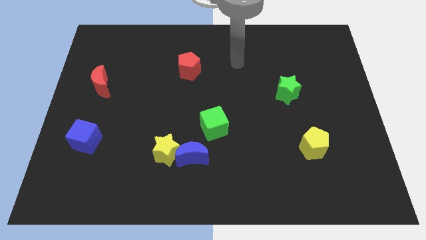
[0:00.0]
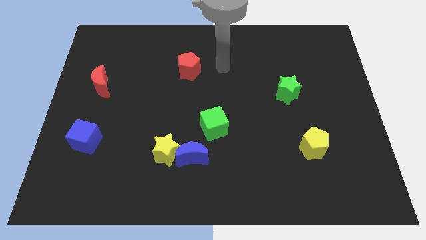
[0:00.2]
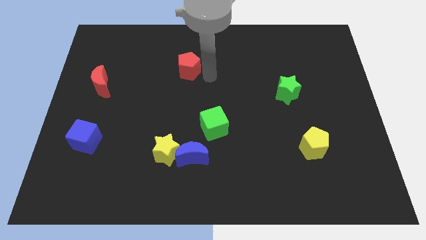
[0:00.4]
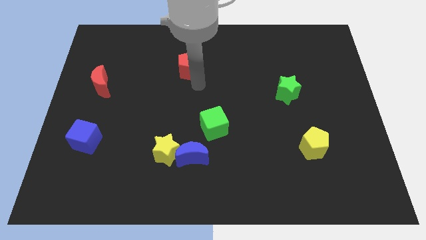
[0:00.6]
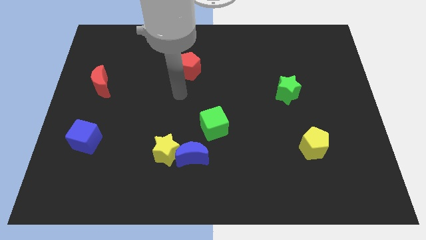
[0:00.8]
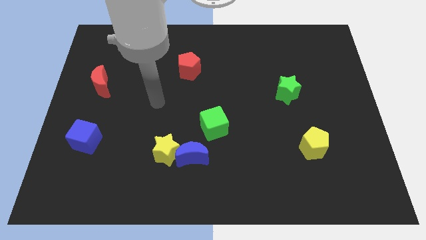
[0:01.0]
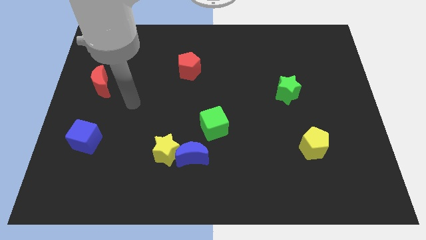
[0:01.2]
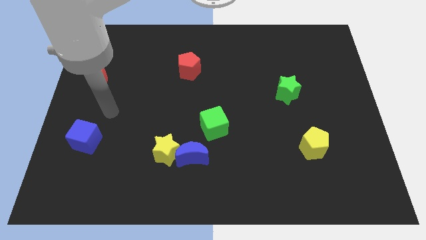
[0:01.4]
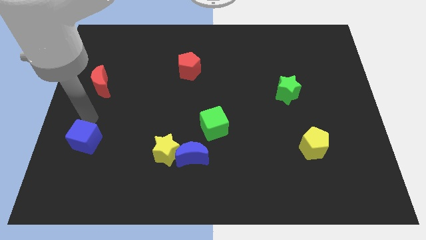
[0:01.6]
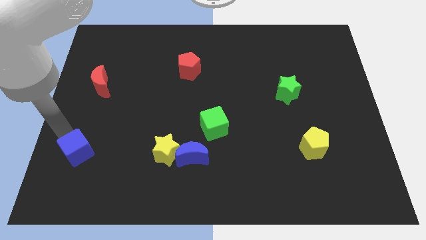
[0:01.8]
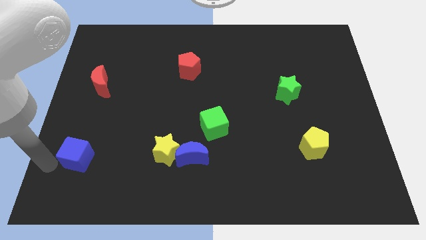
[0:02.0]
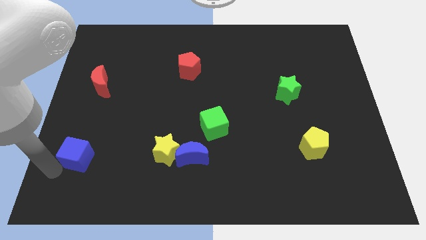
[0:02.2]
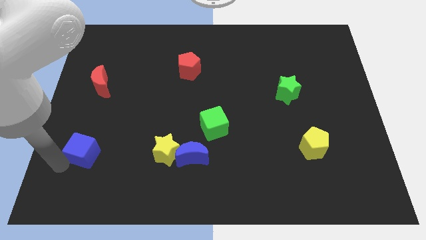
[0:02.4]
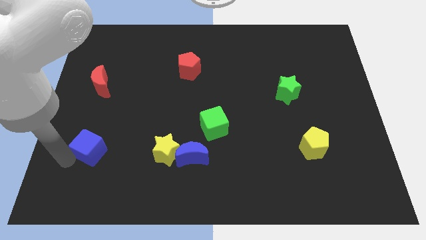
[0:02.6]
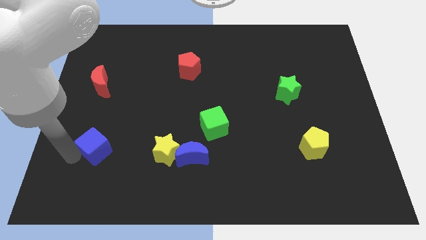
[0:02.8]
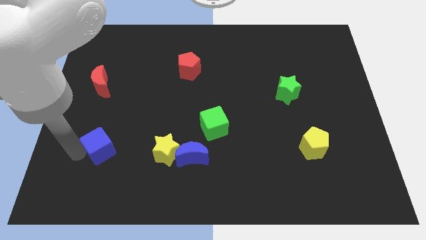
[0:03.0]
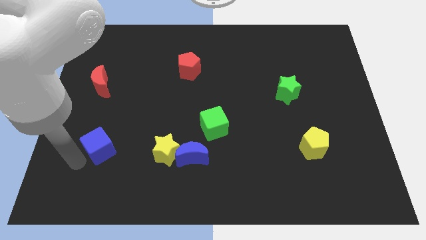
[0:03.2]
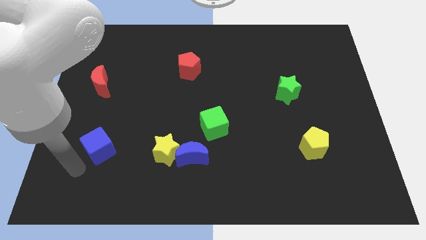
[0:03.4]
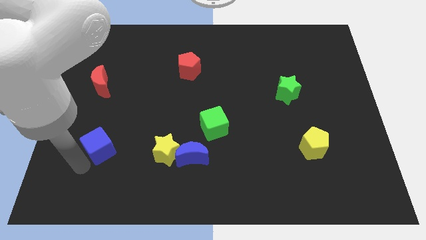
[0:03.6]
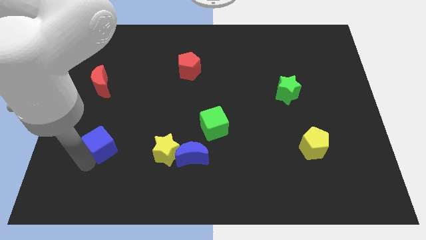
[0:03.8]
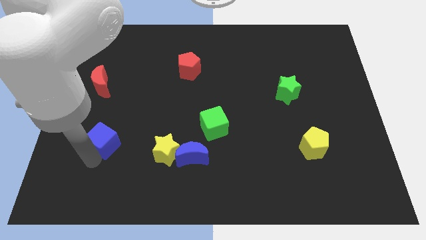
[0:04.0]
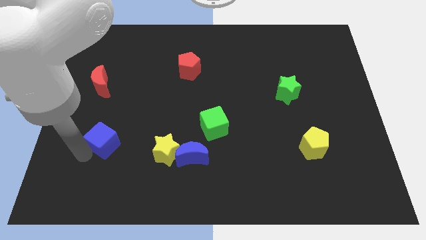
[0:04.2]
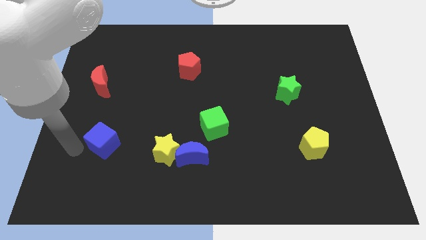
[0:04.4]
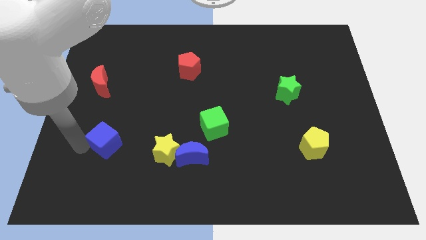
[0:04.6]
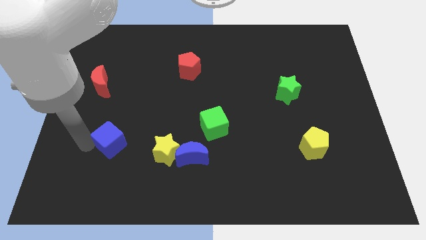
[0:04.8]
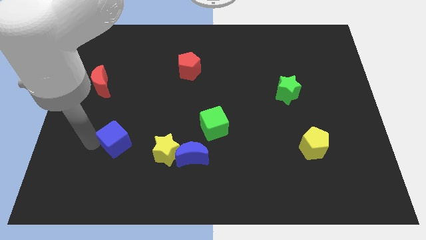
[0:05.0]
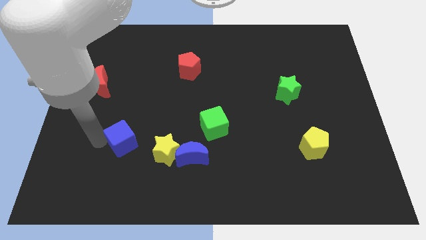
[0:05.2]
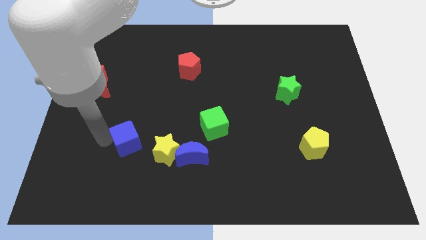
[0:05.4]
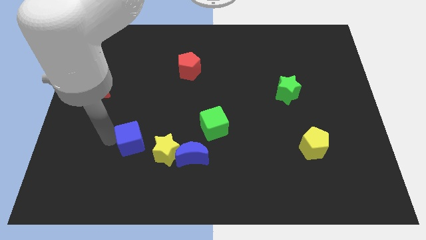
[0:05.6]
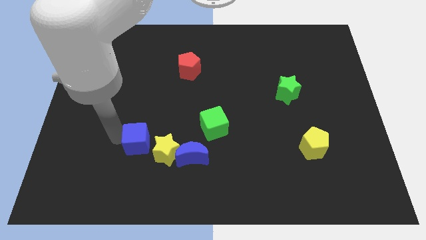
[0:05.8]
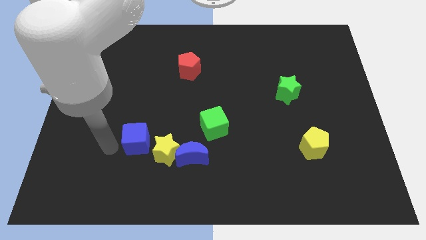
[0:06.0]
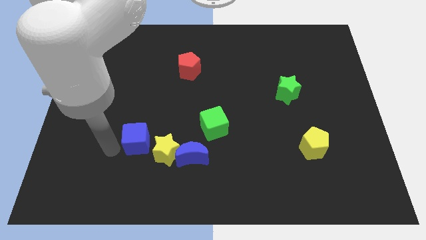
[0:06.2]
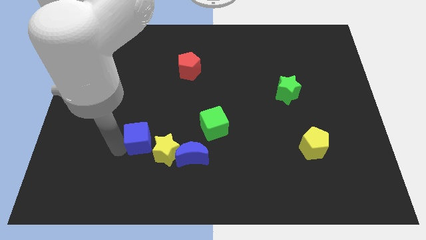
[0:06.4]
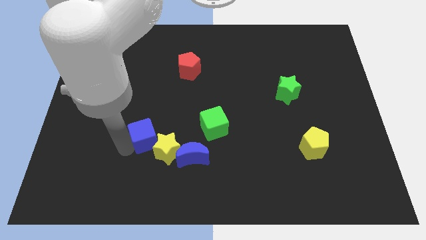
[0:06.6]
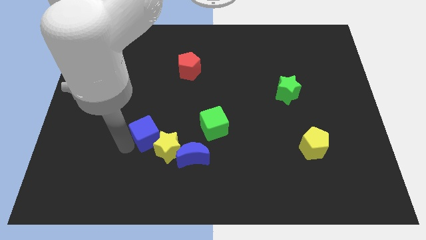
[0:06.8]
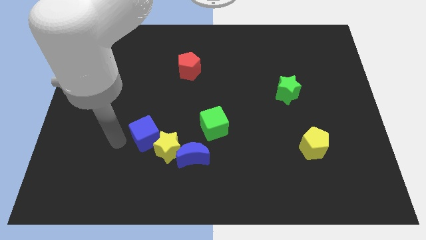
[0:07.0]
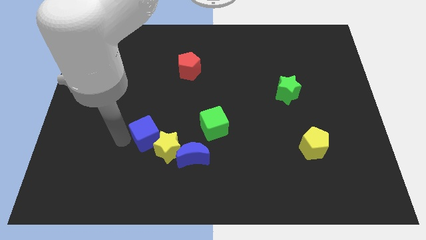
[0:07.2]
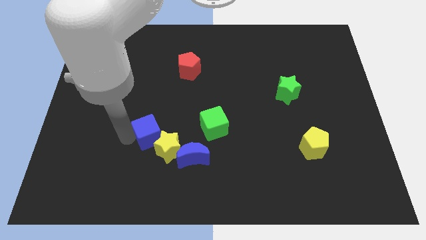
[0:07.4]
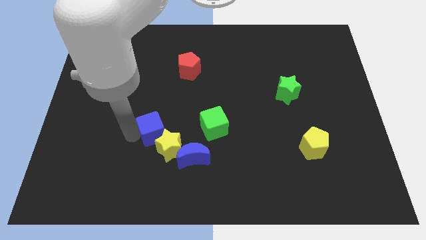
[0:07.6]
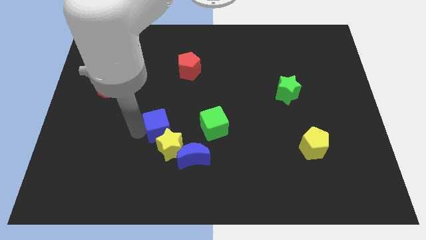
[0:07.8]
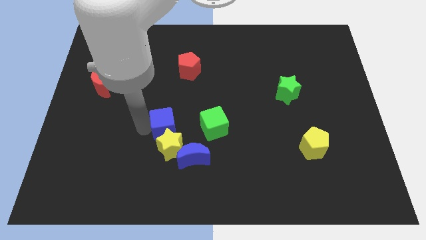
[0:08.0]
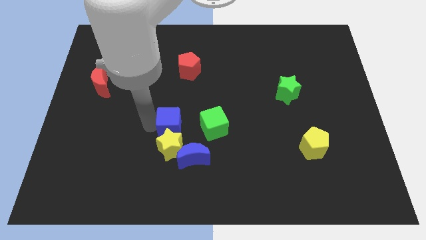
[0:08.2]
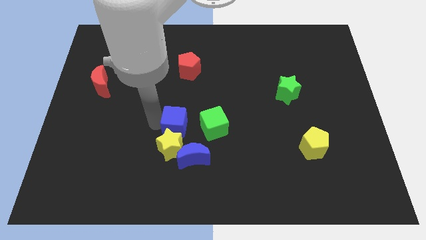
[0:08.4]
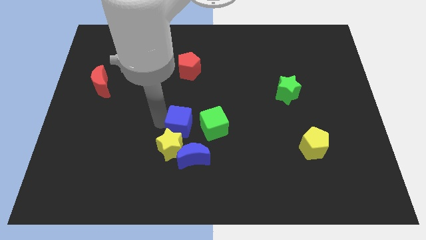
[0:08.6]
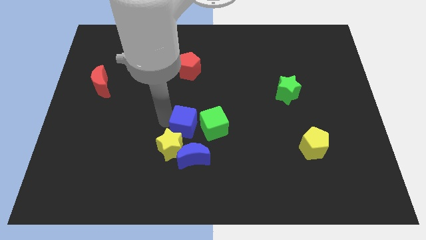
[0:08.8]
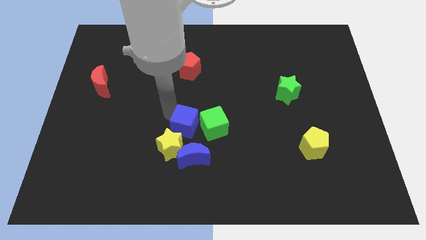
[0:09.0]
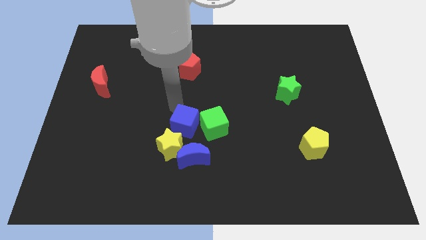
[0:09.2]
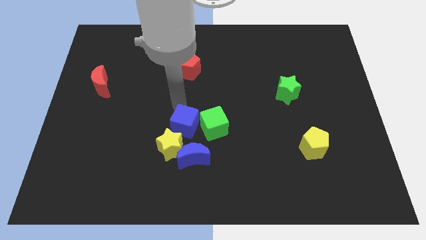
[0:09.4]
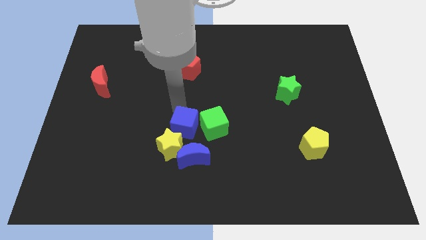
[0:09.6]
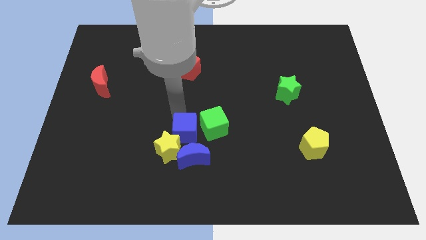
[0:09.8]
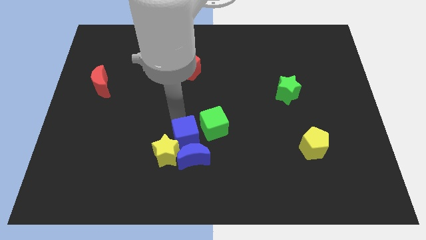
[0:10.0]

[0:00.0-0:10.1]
move the blue cube to the blue moon

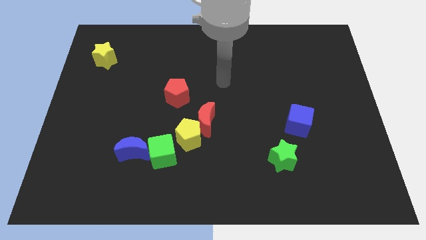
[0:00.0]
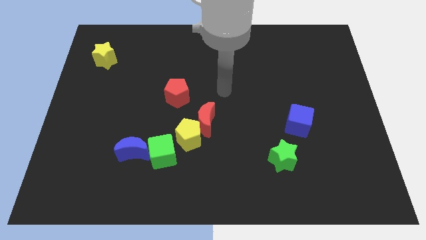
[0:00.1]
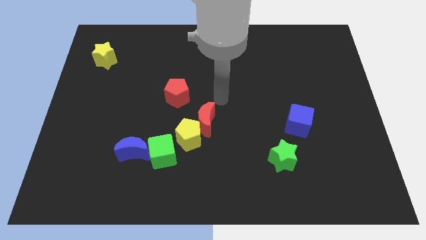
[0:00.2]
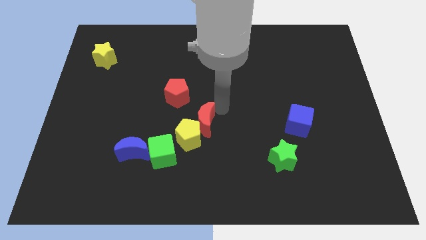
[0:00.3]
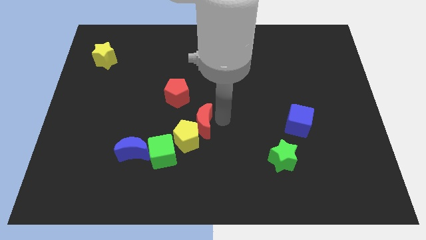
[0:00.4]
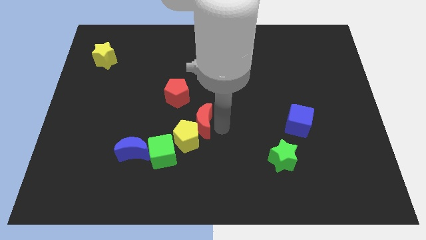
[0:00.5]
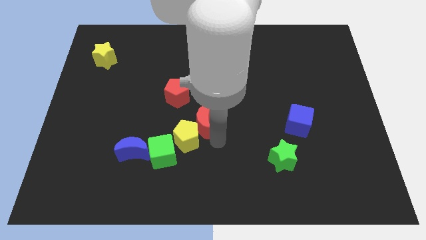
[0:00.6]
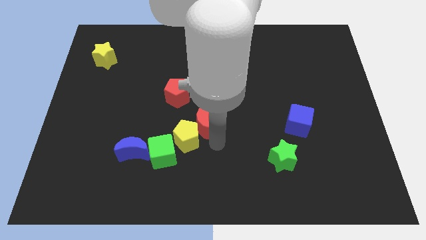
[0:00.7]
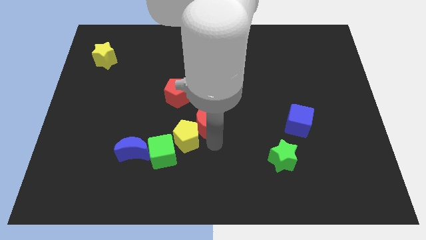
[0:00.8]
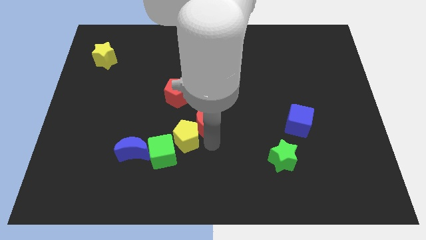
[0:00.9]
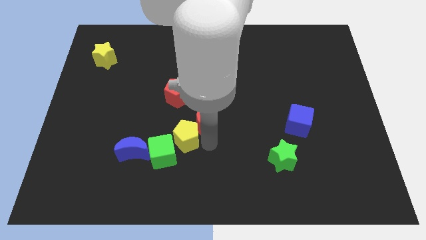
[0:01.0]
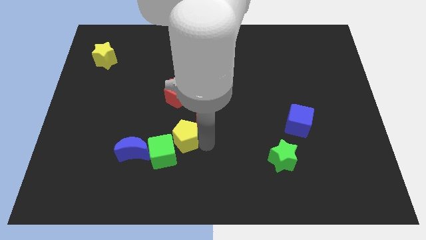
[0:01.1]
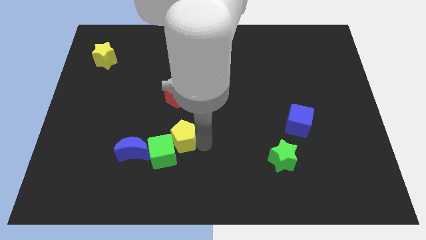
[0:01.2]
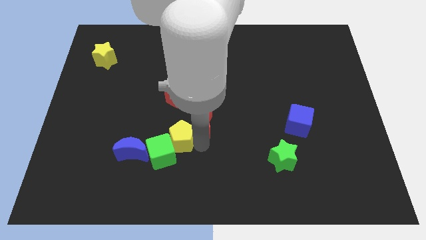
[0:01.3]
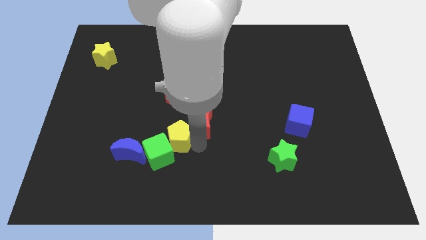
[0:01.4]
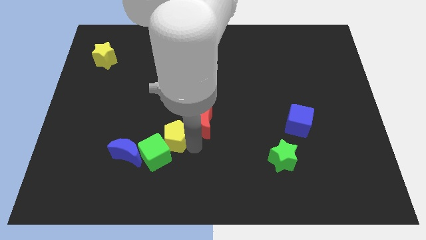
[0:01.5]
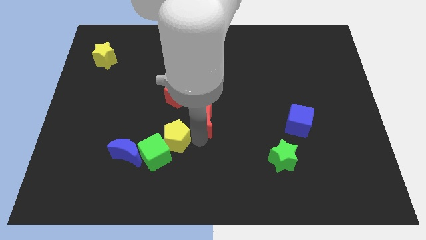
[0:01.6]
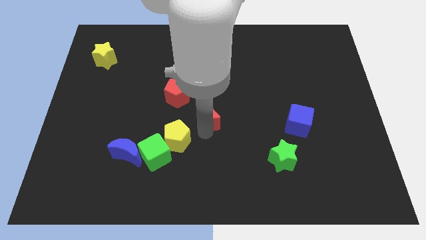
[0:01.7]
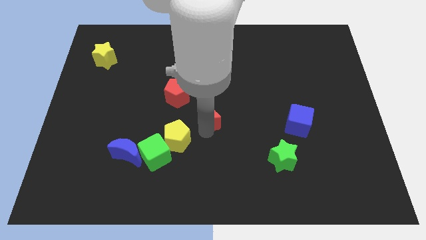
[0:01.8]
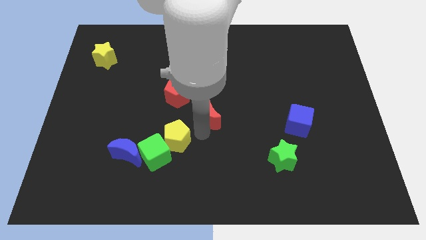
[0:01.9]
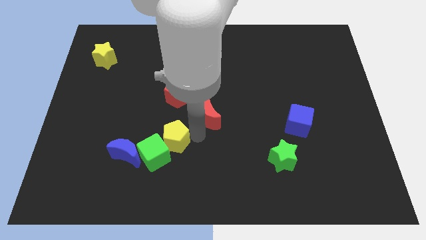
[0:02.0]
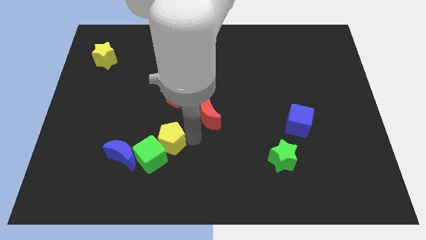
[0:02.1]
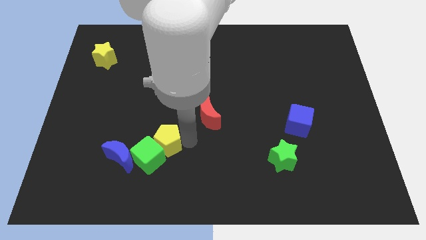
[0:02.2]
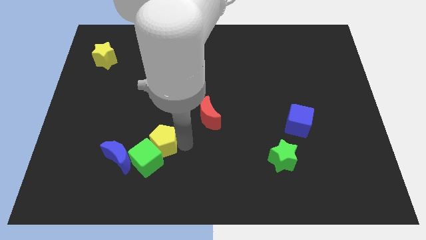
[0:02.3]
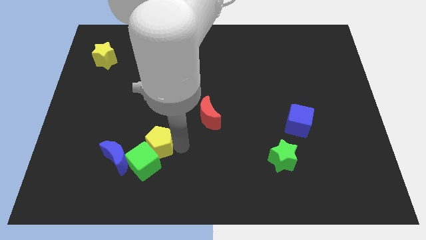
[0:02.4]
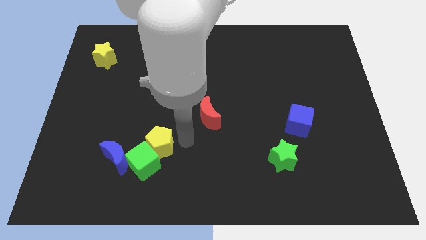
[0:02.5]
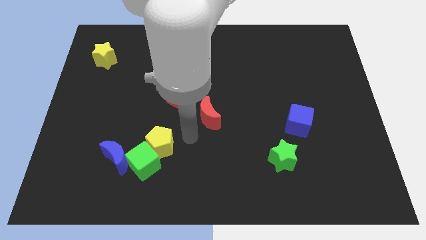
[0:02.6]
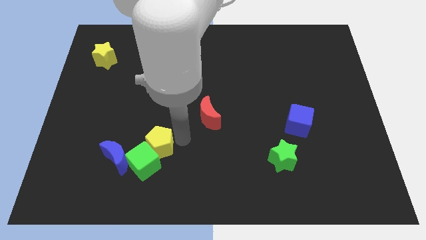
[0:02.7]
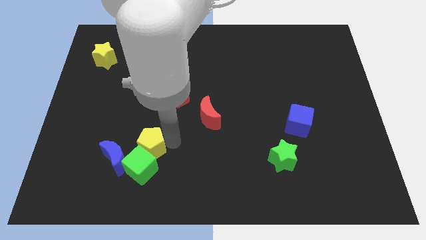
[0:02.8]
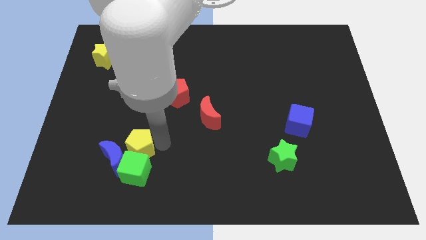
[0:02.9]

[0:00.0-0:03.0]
move the yellow pentagon close to the blue moon
